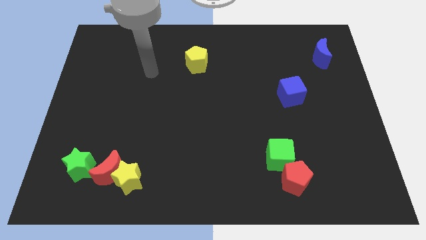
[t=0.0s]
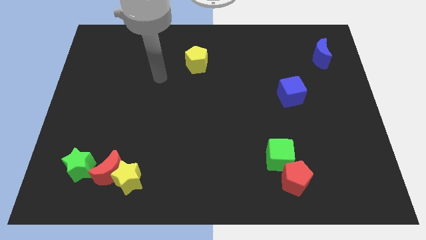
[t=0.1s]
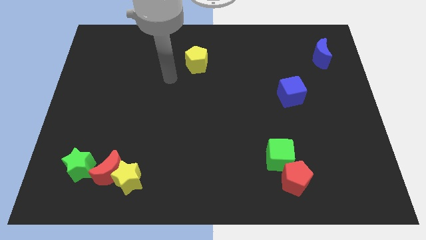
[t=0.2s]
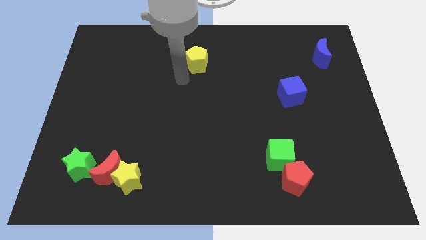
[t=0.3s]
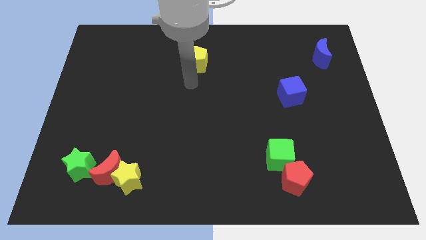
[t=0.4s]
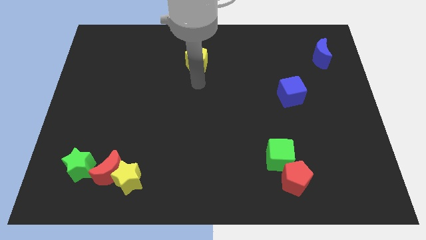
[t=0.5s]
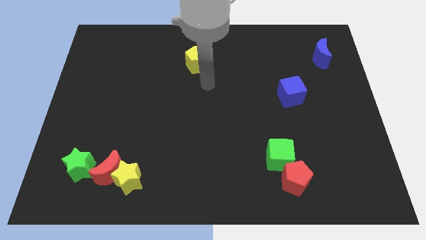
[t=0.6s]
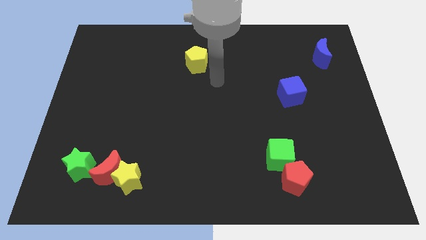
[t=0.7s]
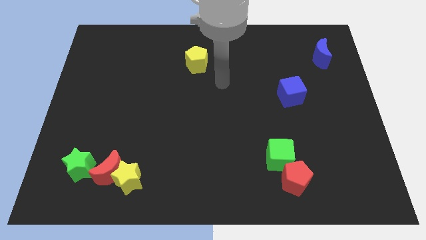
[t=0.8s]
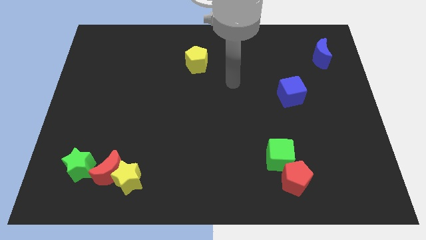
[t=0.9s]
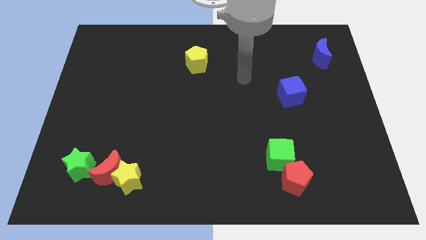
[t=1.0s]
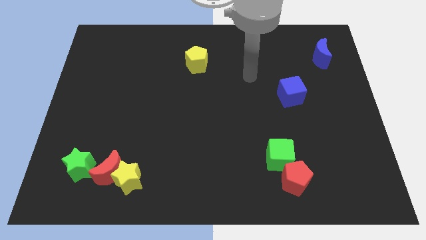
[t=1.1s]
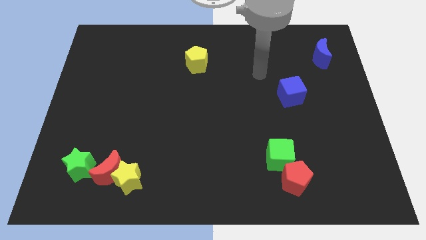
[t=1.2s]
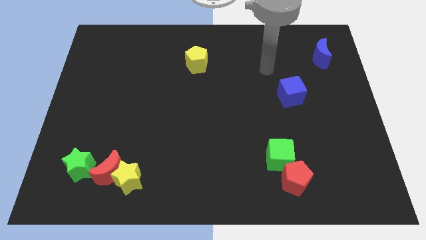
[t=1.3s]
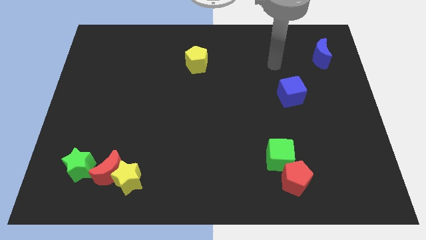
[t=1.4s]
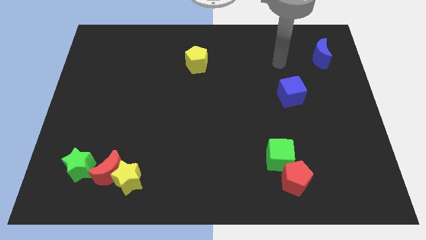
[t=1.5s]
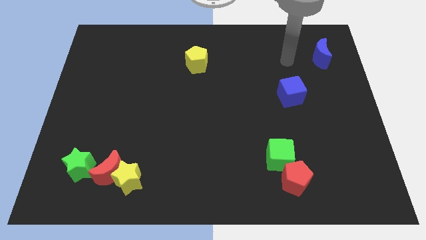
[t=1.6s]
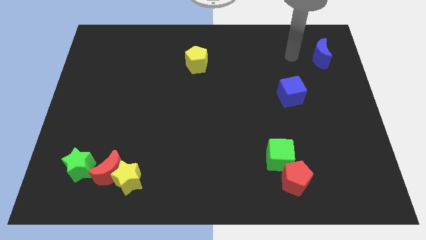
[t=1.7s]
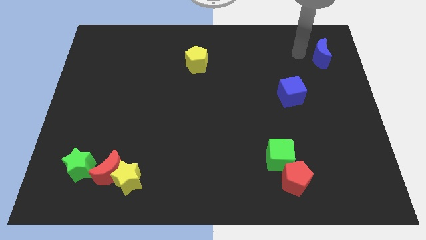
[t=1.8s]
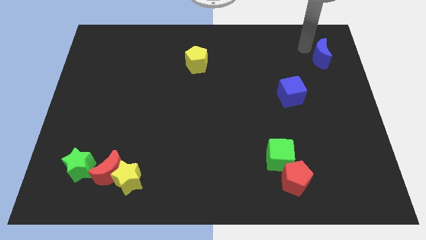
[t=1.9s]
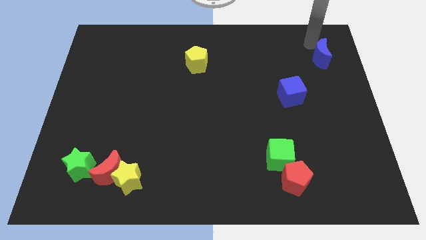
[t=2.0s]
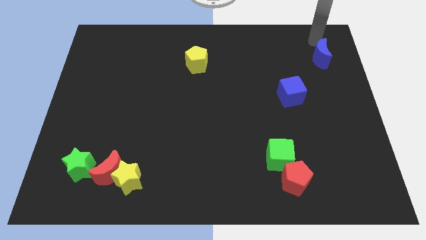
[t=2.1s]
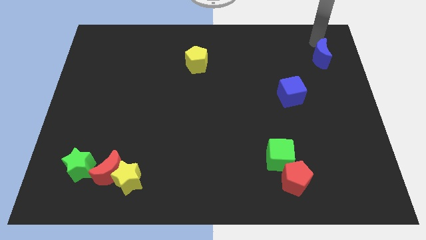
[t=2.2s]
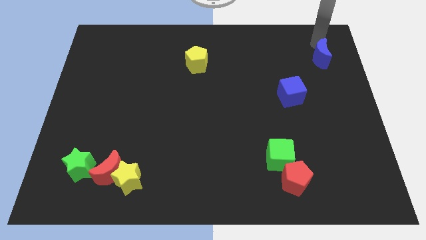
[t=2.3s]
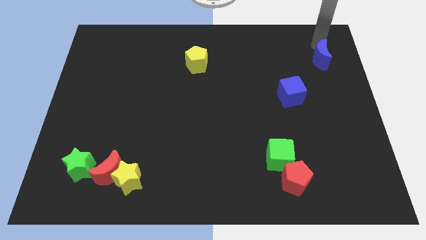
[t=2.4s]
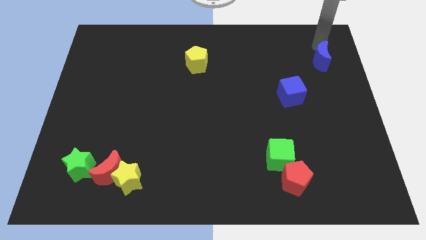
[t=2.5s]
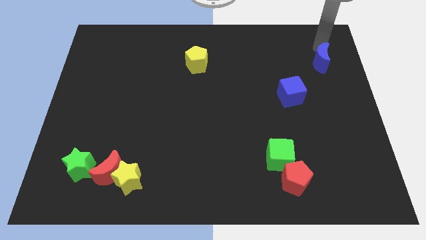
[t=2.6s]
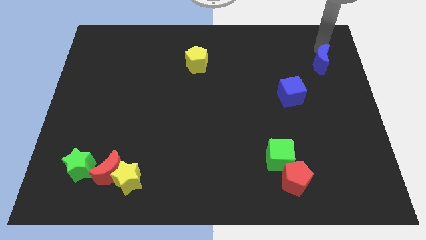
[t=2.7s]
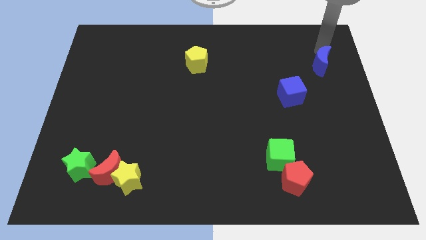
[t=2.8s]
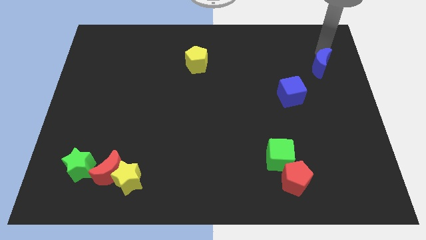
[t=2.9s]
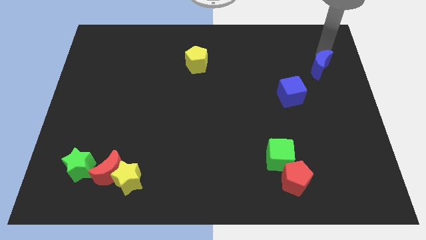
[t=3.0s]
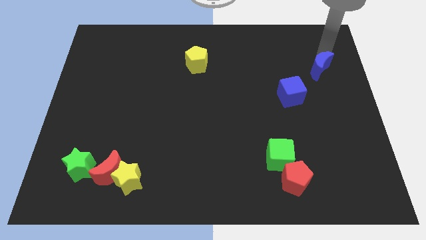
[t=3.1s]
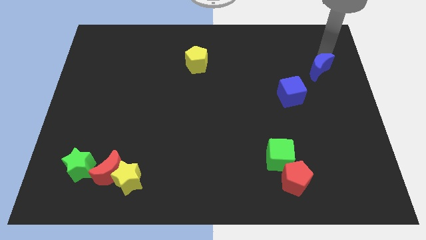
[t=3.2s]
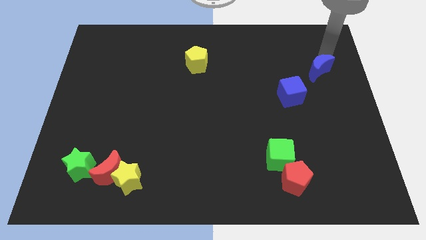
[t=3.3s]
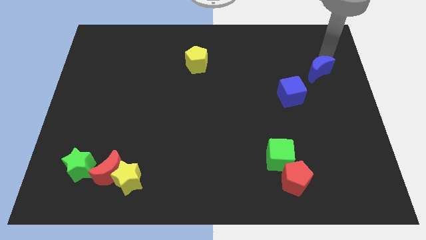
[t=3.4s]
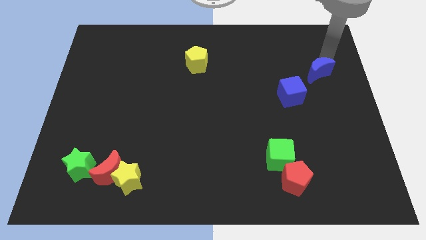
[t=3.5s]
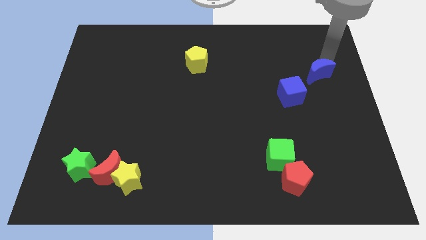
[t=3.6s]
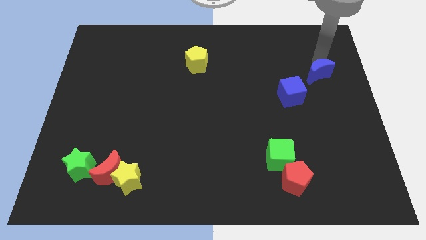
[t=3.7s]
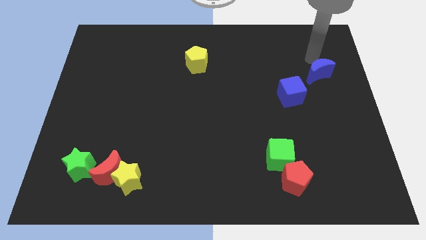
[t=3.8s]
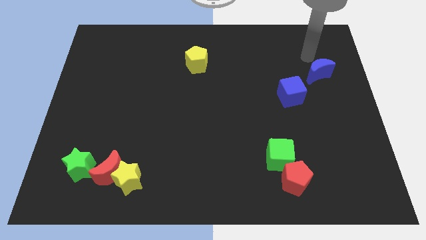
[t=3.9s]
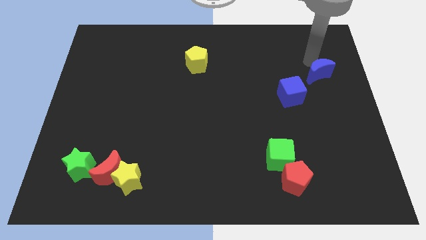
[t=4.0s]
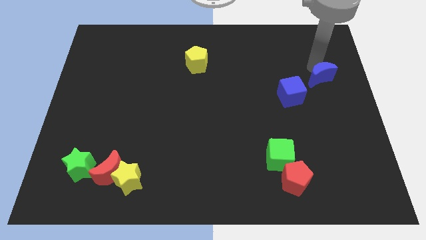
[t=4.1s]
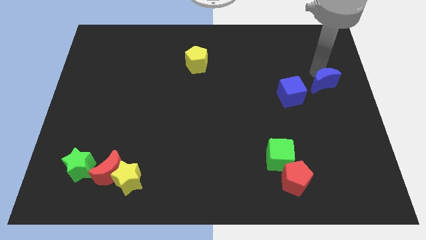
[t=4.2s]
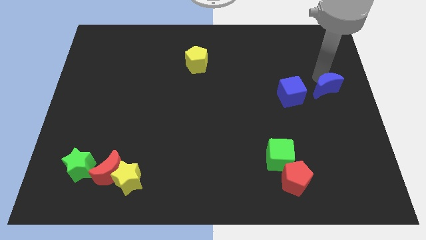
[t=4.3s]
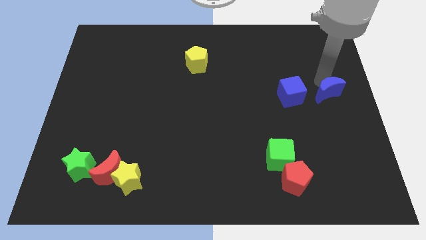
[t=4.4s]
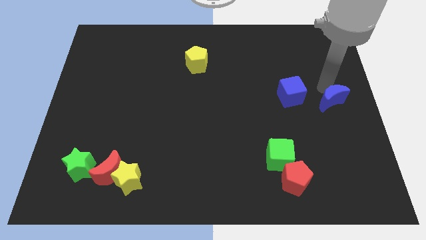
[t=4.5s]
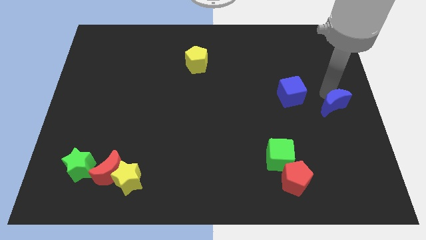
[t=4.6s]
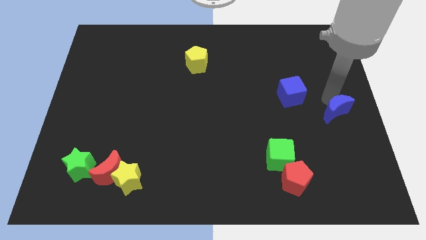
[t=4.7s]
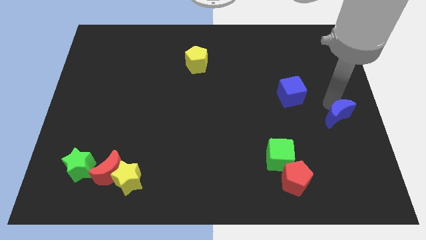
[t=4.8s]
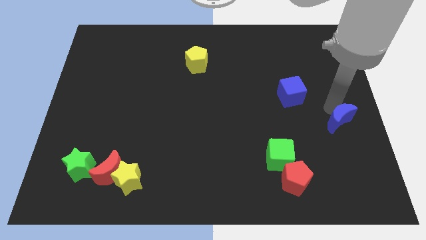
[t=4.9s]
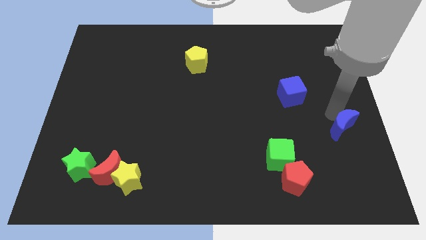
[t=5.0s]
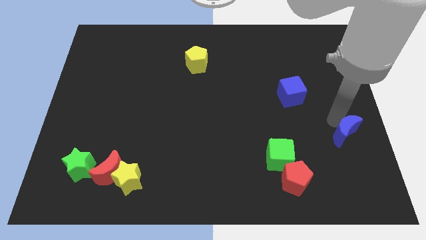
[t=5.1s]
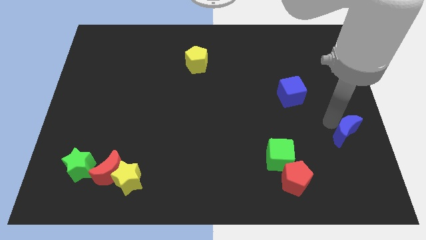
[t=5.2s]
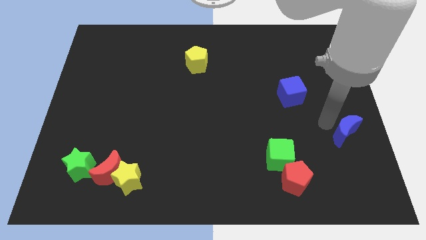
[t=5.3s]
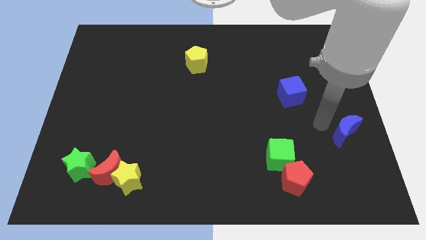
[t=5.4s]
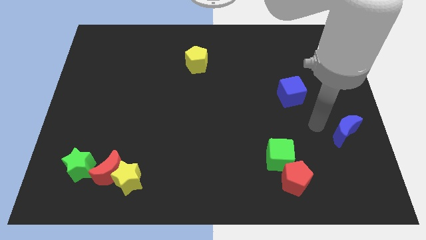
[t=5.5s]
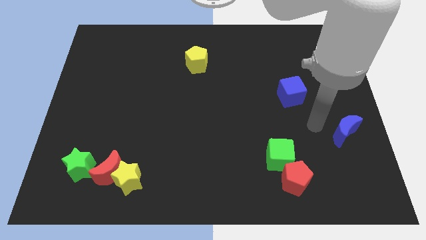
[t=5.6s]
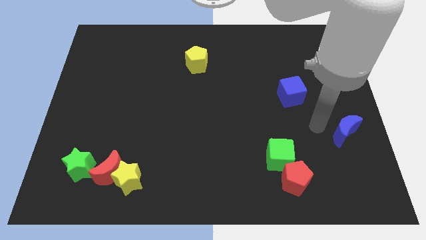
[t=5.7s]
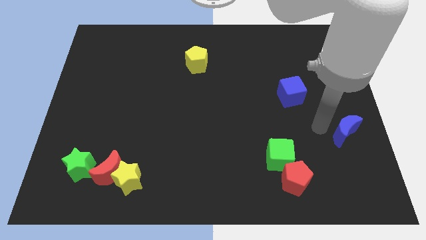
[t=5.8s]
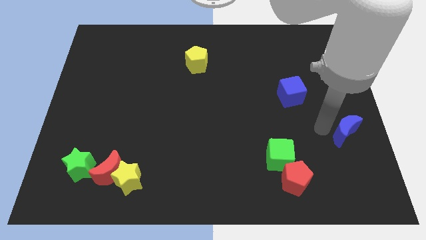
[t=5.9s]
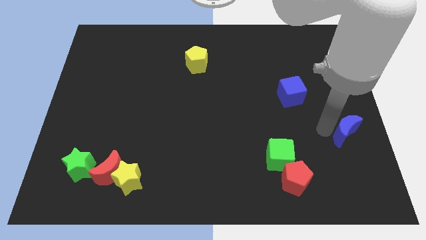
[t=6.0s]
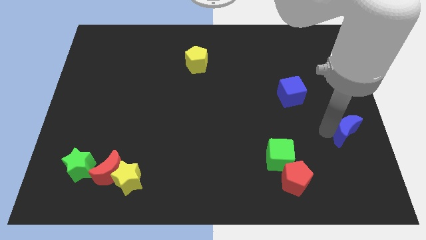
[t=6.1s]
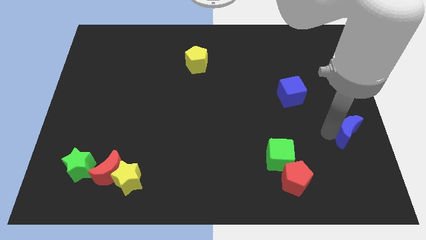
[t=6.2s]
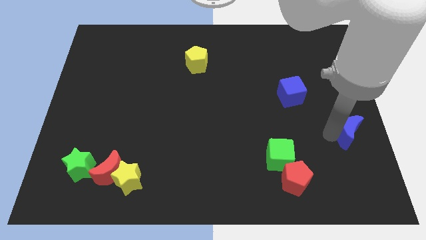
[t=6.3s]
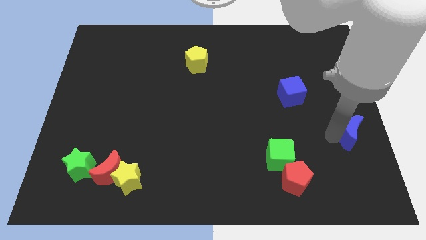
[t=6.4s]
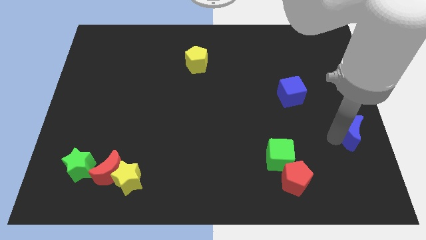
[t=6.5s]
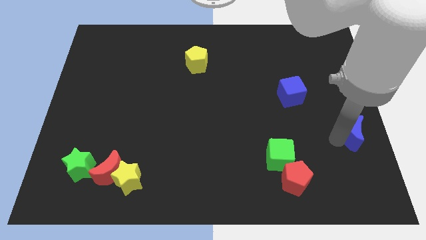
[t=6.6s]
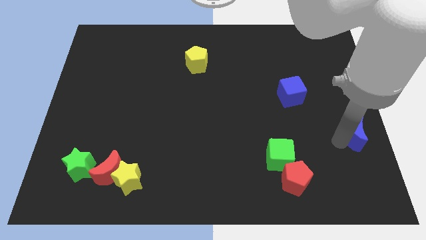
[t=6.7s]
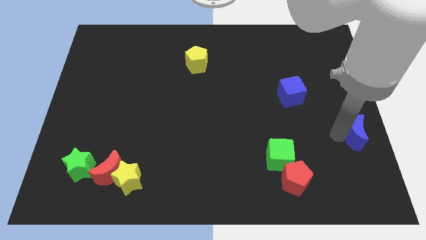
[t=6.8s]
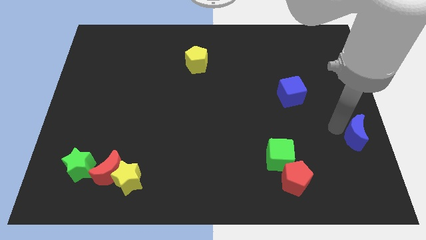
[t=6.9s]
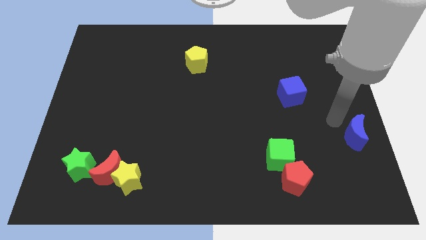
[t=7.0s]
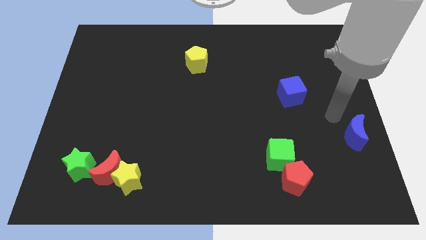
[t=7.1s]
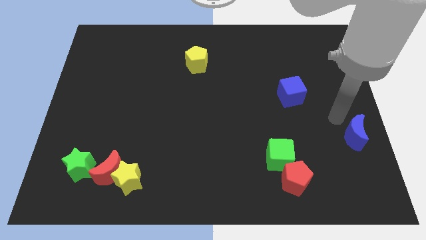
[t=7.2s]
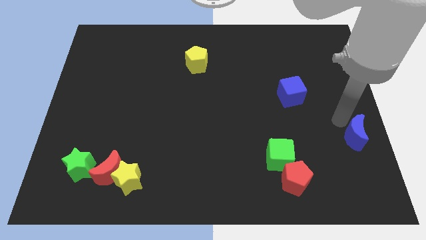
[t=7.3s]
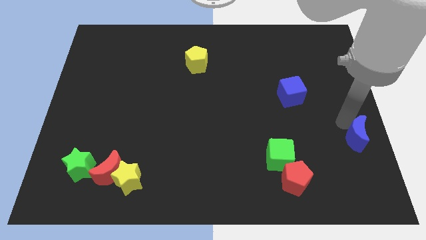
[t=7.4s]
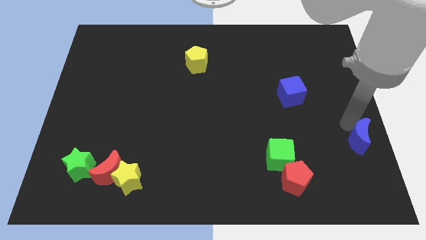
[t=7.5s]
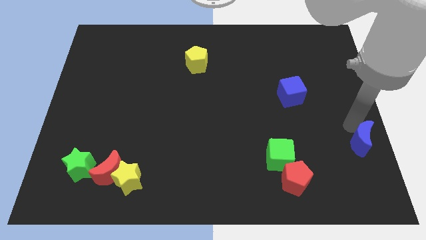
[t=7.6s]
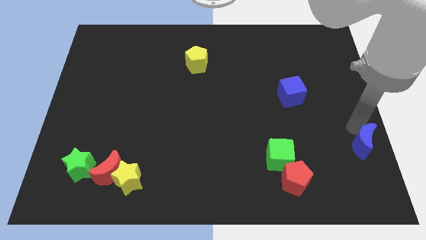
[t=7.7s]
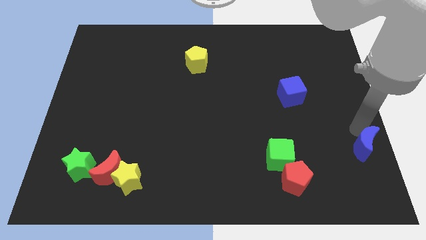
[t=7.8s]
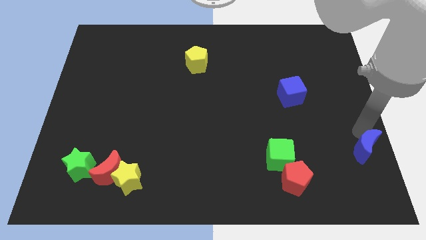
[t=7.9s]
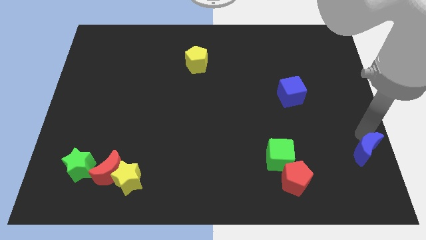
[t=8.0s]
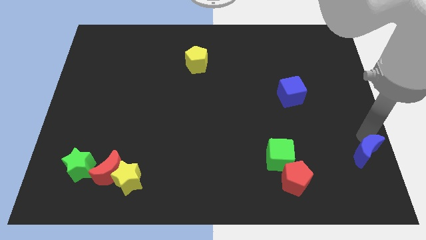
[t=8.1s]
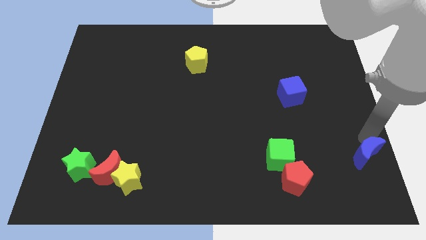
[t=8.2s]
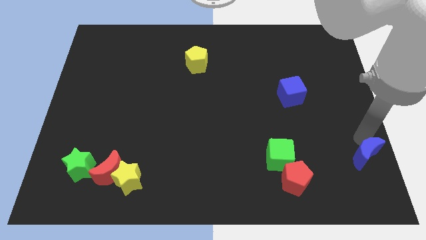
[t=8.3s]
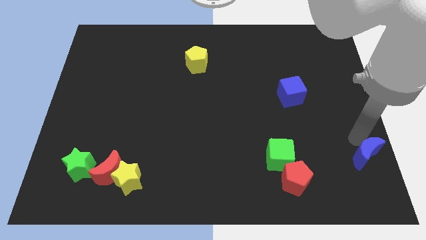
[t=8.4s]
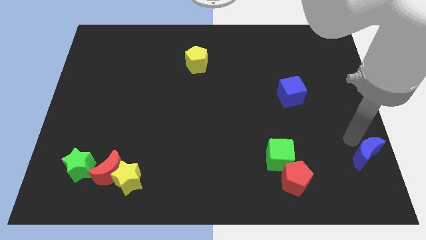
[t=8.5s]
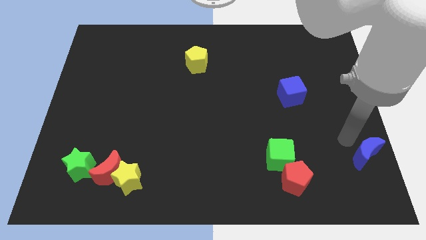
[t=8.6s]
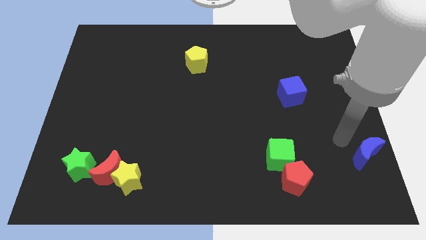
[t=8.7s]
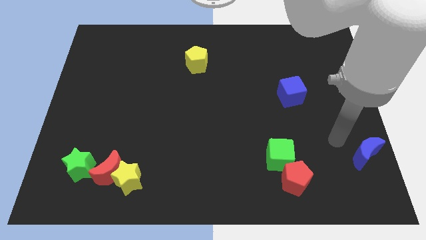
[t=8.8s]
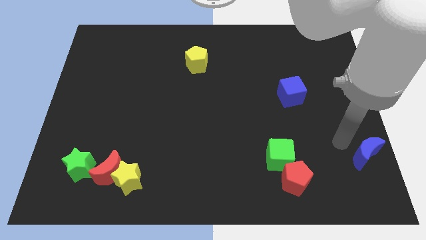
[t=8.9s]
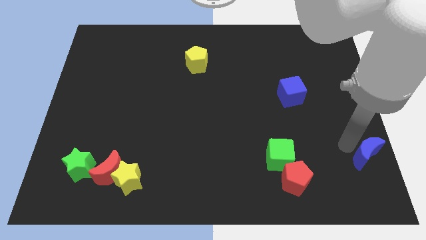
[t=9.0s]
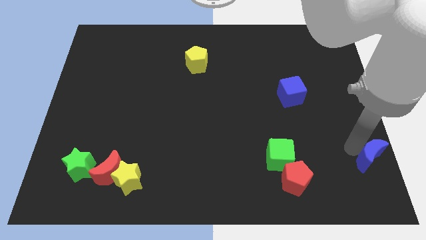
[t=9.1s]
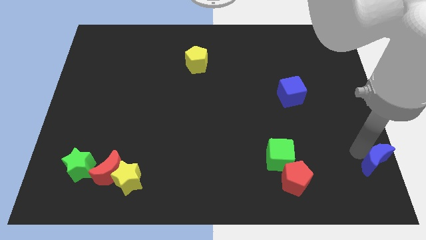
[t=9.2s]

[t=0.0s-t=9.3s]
move the blue moon to the bottom right
